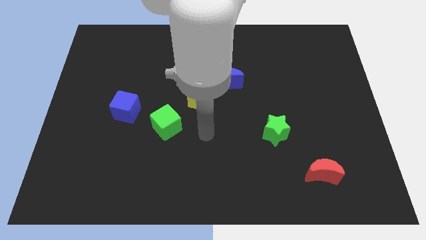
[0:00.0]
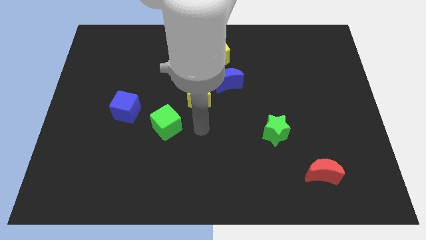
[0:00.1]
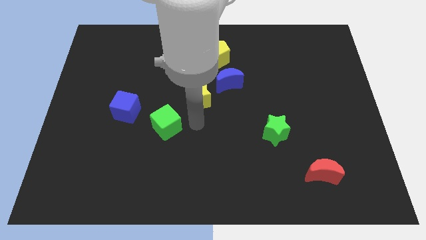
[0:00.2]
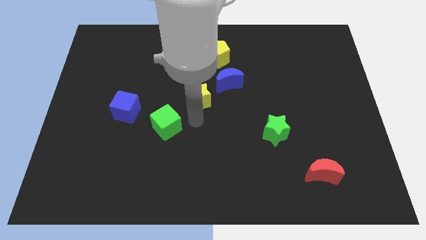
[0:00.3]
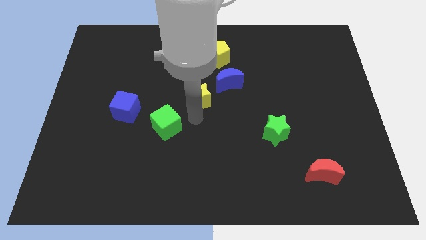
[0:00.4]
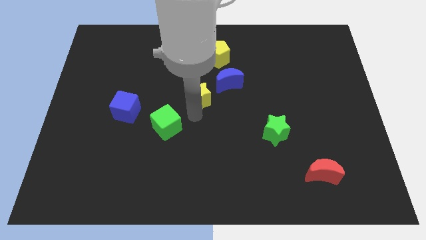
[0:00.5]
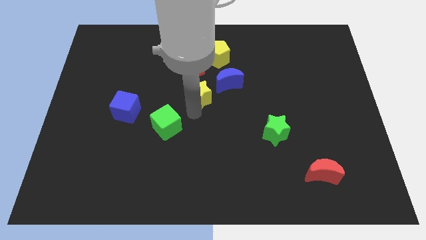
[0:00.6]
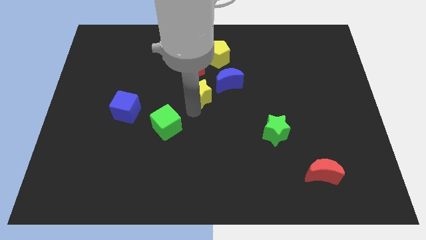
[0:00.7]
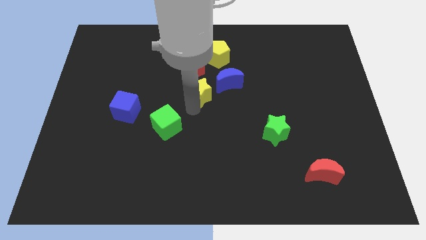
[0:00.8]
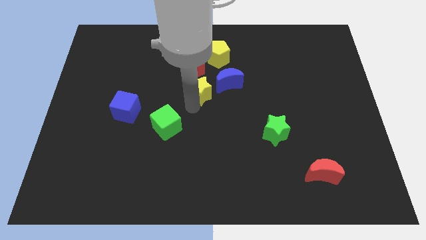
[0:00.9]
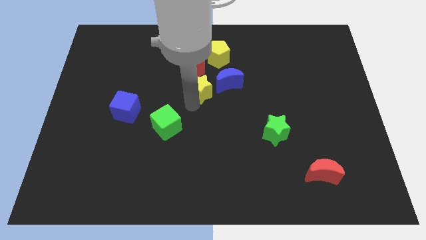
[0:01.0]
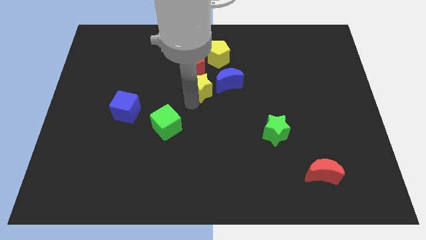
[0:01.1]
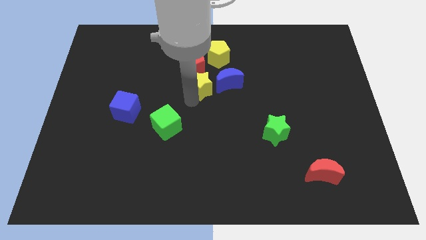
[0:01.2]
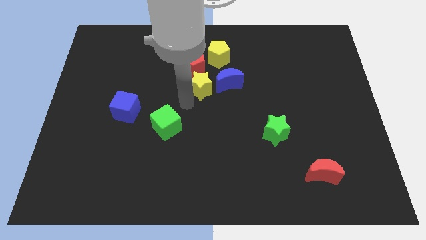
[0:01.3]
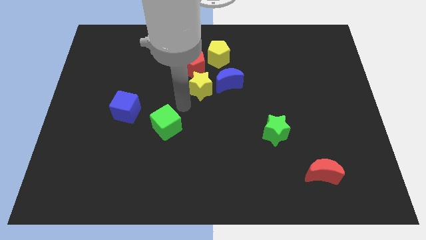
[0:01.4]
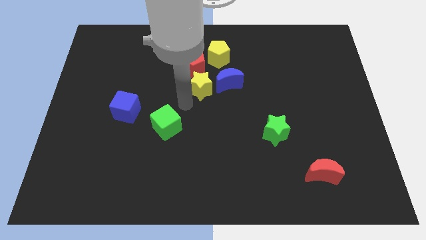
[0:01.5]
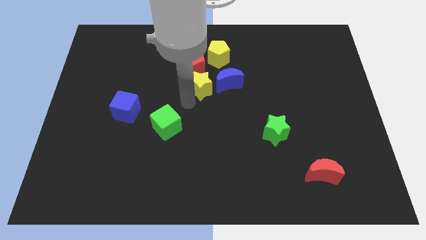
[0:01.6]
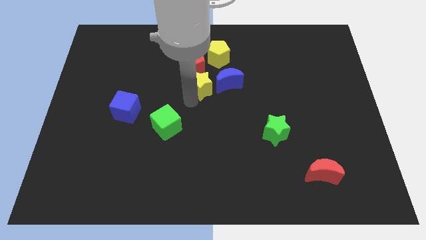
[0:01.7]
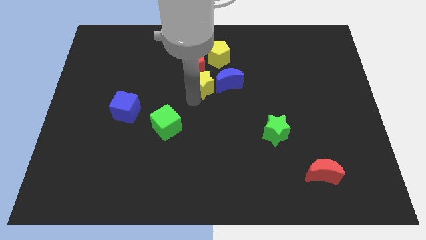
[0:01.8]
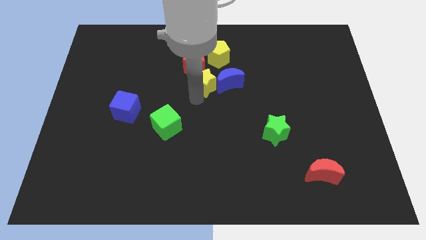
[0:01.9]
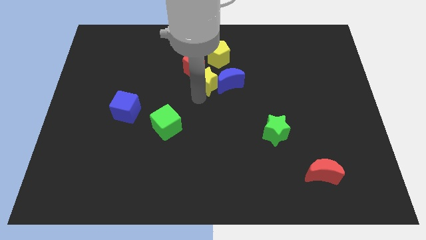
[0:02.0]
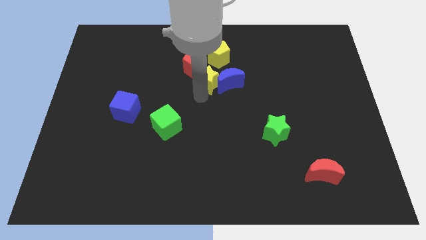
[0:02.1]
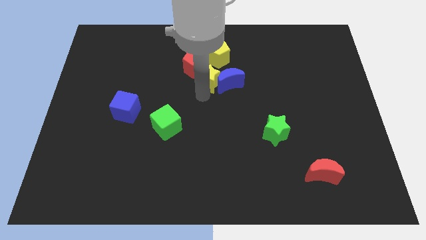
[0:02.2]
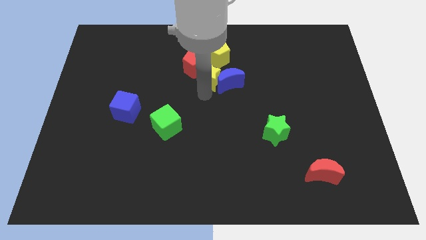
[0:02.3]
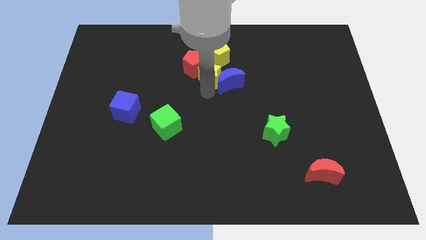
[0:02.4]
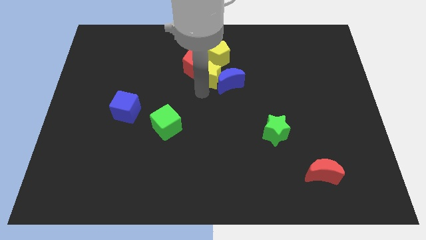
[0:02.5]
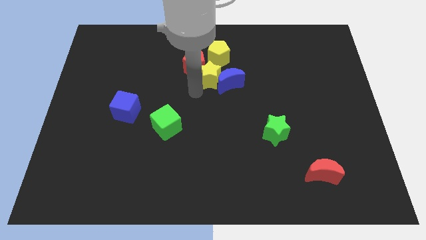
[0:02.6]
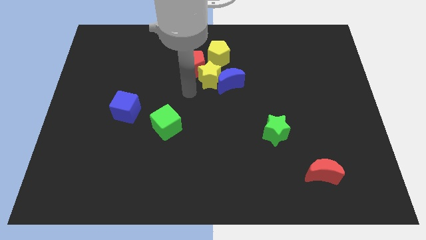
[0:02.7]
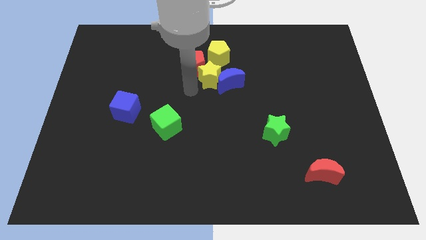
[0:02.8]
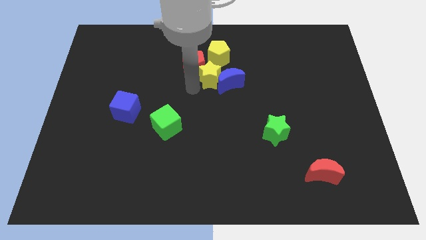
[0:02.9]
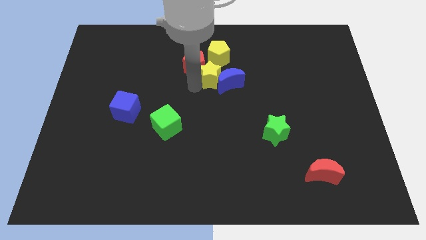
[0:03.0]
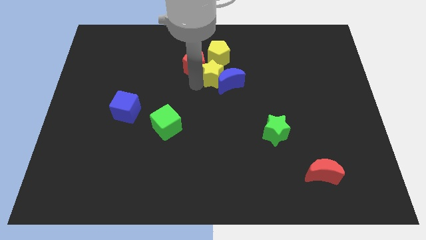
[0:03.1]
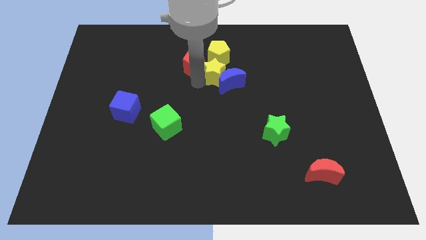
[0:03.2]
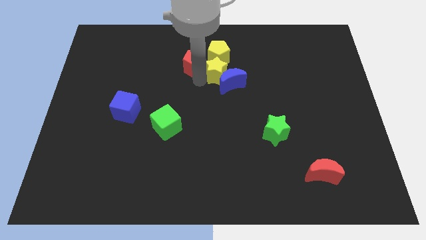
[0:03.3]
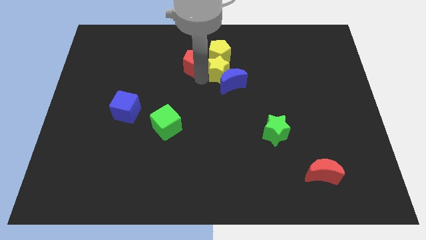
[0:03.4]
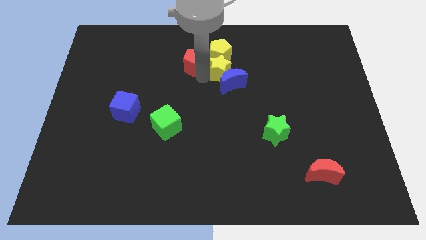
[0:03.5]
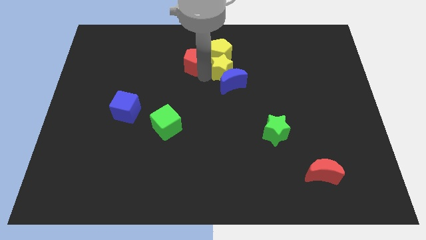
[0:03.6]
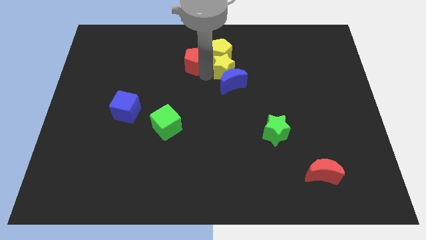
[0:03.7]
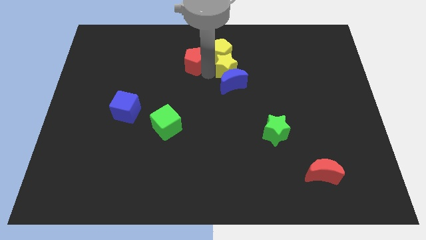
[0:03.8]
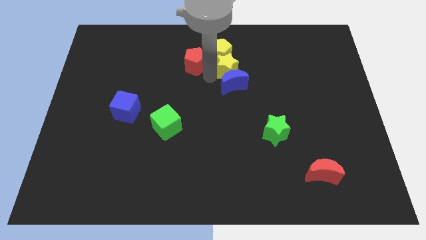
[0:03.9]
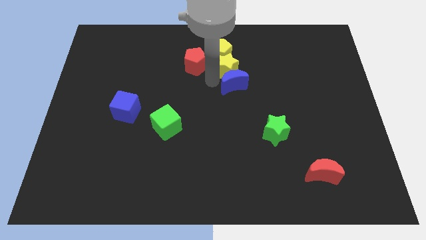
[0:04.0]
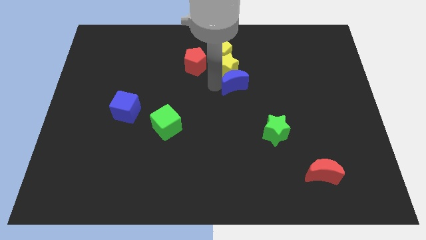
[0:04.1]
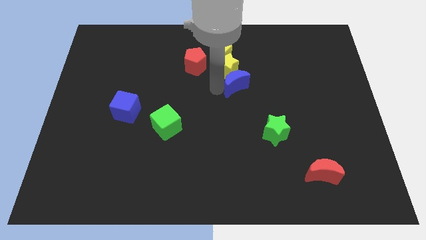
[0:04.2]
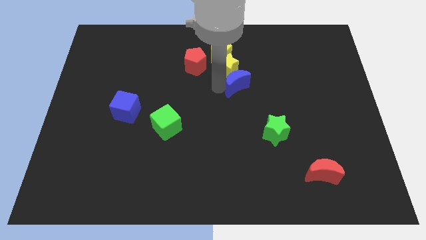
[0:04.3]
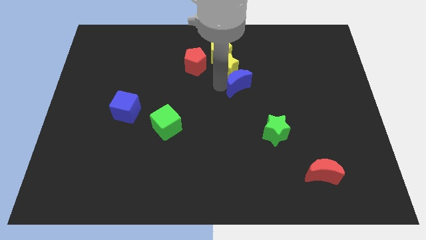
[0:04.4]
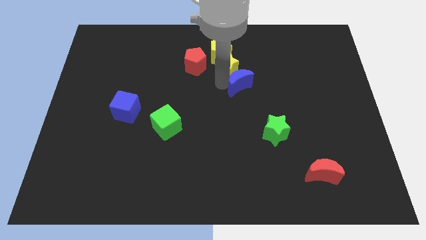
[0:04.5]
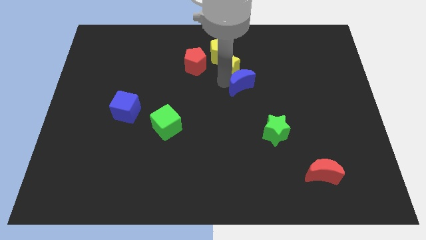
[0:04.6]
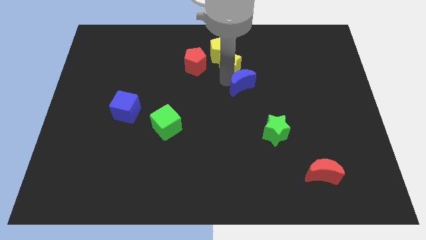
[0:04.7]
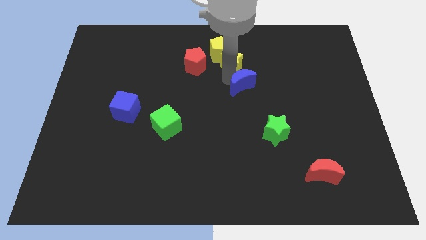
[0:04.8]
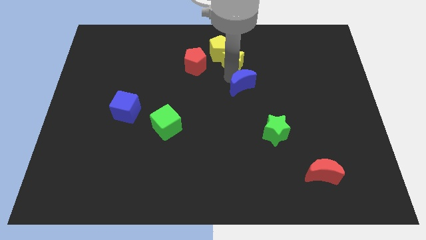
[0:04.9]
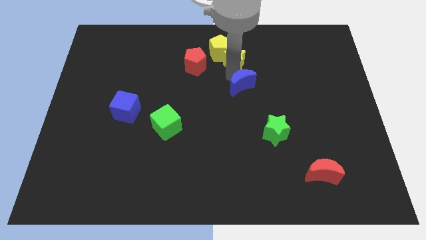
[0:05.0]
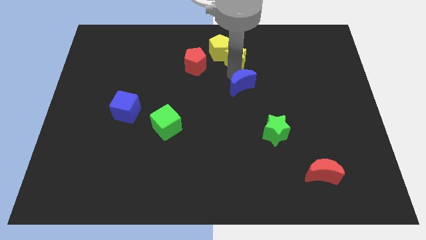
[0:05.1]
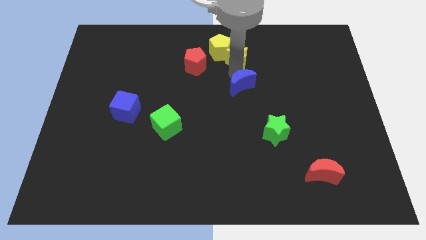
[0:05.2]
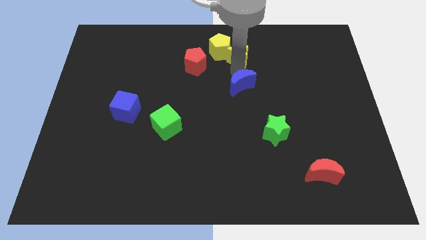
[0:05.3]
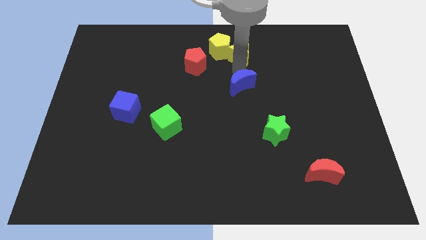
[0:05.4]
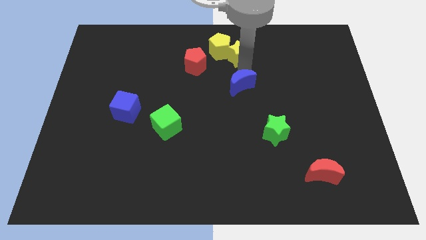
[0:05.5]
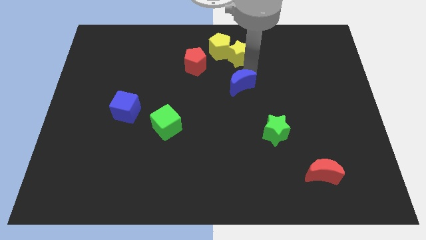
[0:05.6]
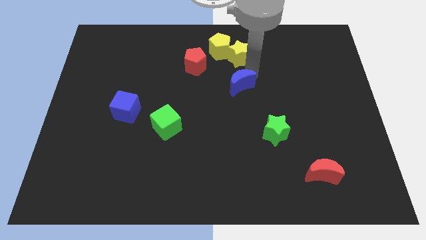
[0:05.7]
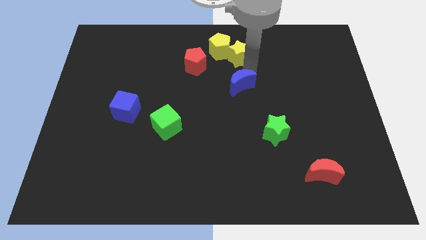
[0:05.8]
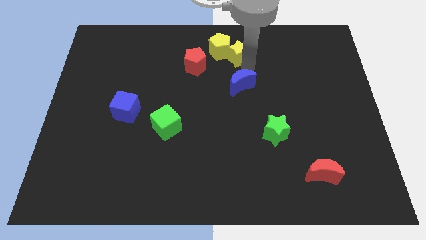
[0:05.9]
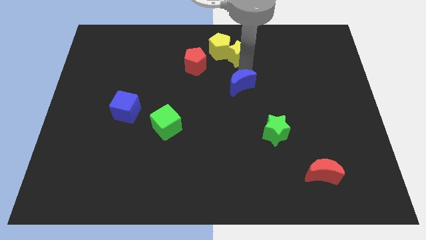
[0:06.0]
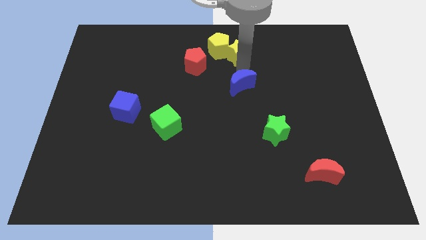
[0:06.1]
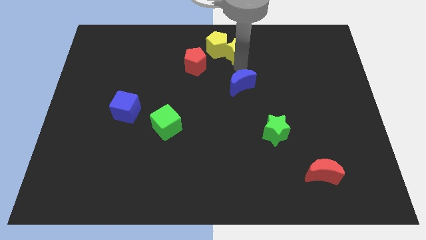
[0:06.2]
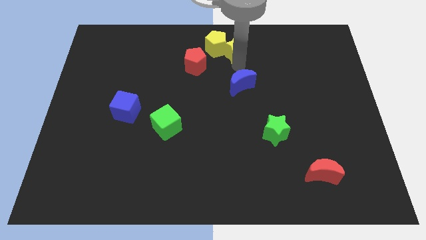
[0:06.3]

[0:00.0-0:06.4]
push the yellow star to the top side
